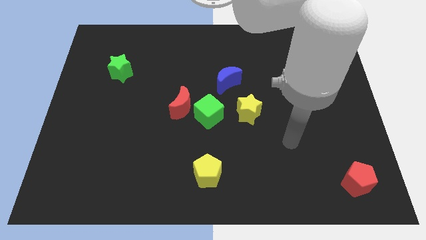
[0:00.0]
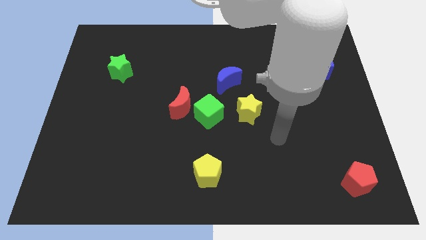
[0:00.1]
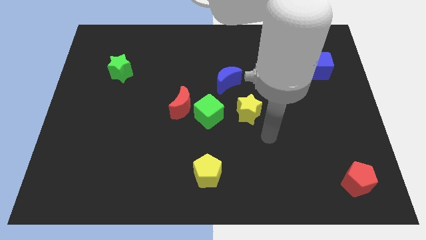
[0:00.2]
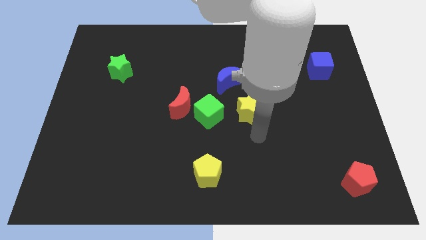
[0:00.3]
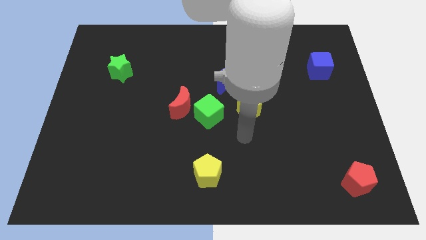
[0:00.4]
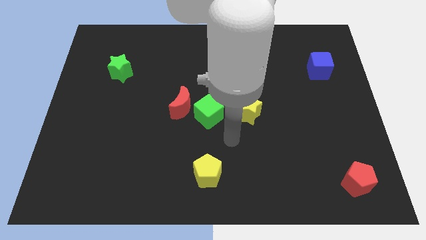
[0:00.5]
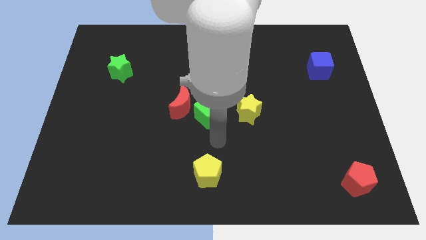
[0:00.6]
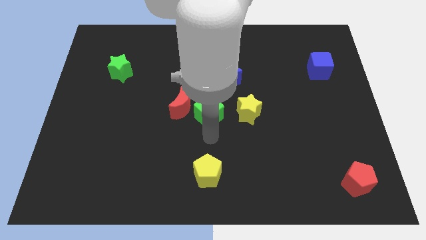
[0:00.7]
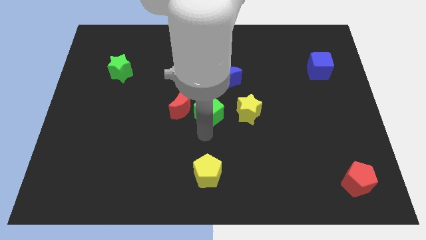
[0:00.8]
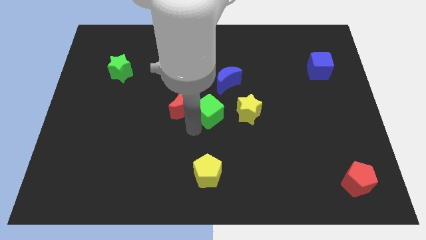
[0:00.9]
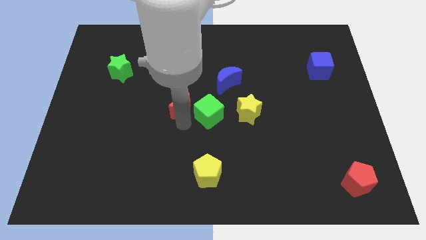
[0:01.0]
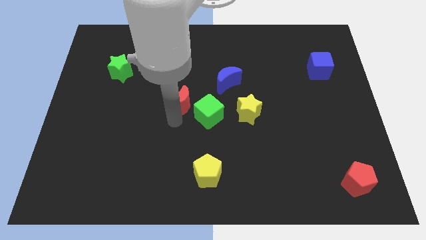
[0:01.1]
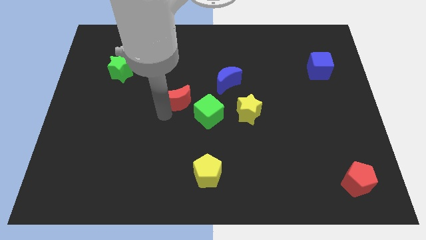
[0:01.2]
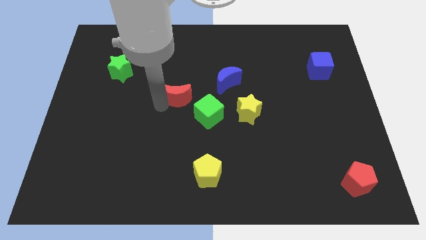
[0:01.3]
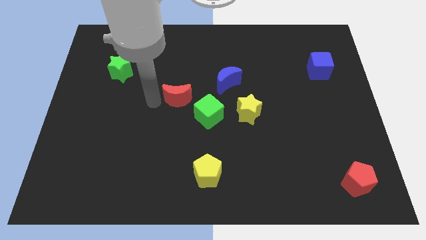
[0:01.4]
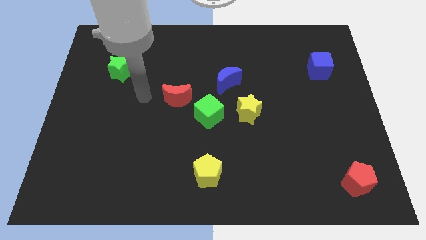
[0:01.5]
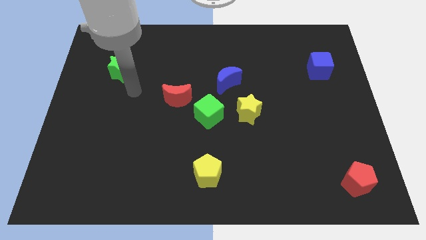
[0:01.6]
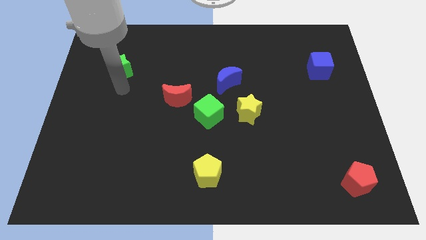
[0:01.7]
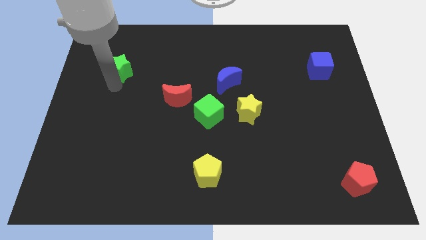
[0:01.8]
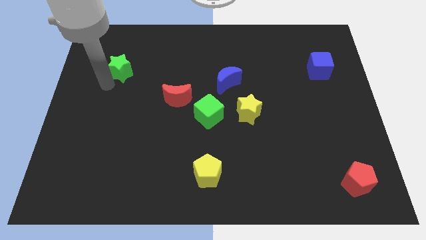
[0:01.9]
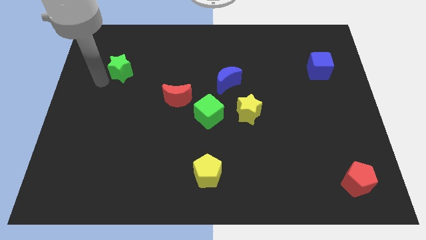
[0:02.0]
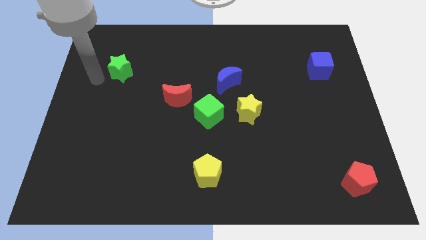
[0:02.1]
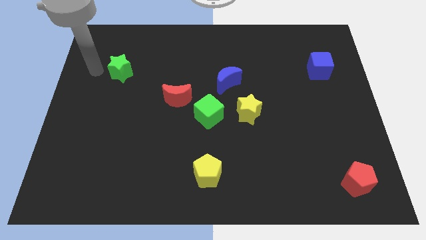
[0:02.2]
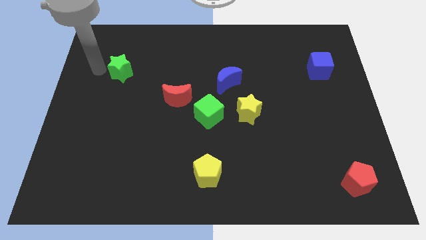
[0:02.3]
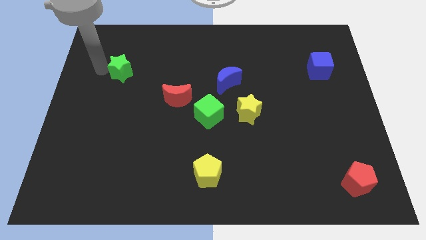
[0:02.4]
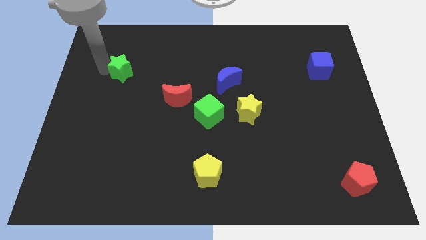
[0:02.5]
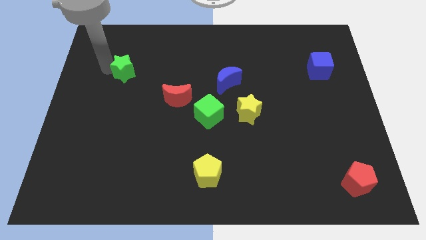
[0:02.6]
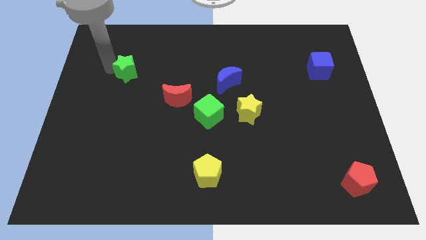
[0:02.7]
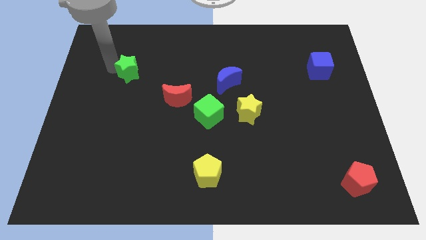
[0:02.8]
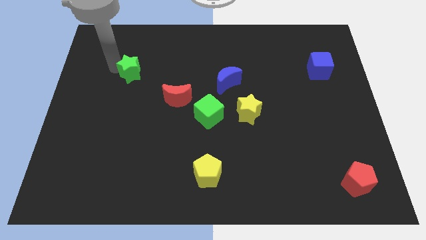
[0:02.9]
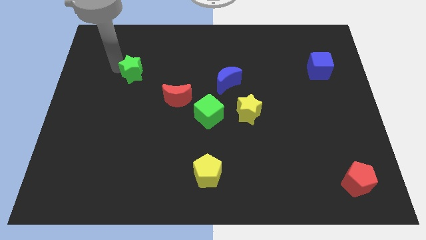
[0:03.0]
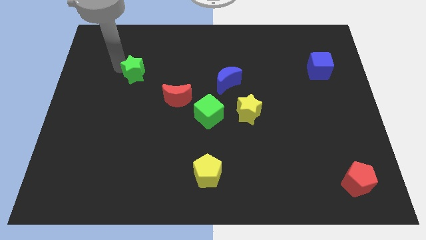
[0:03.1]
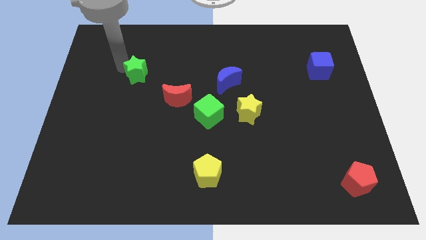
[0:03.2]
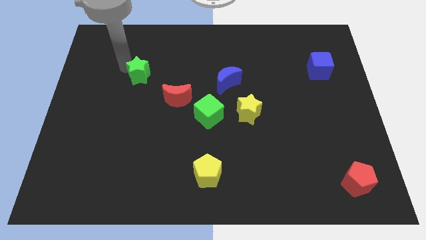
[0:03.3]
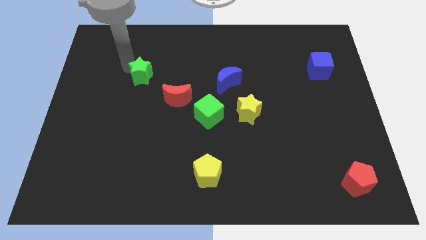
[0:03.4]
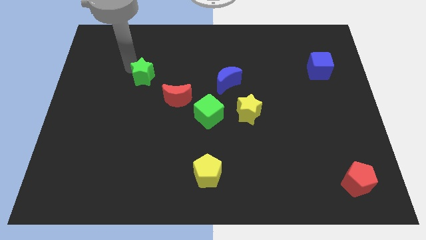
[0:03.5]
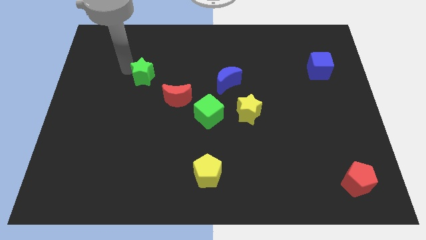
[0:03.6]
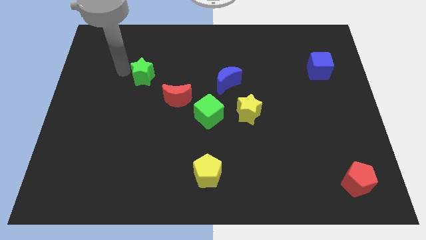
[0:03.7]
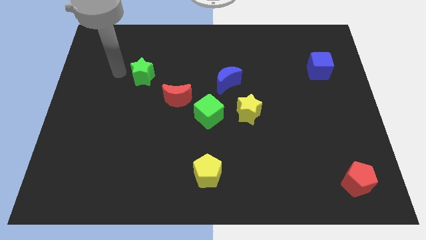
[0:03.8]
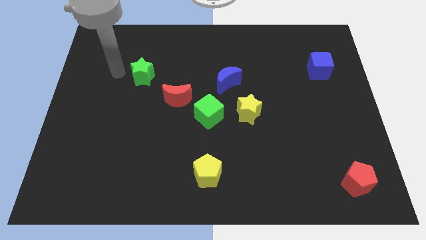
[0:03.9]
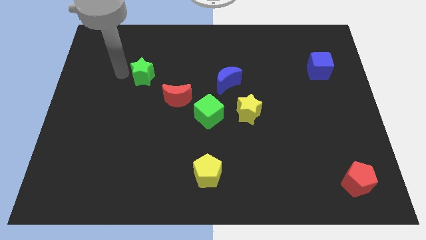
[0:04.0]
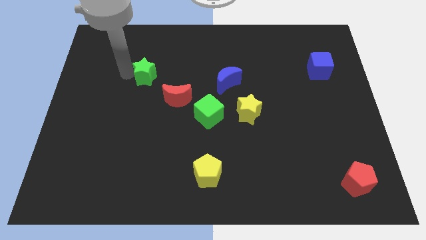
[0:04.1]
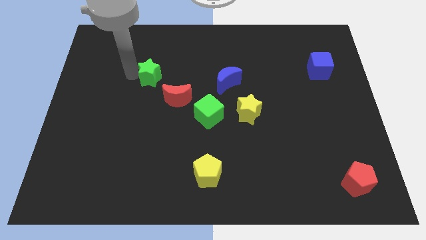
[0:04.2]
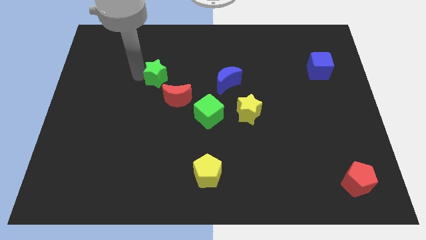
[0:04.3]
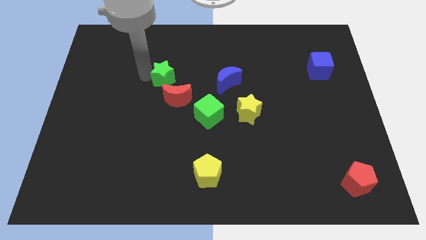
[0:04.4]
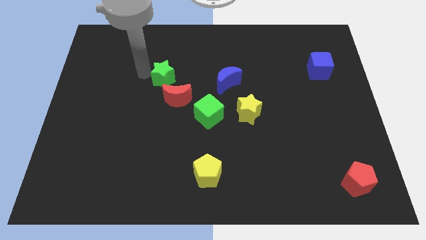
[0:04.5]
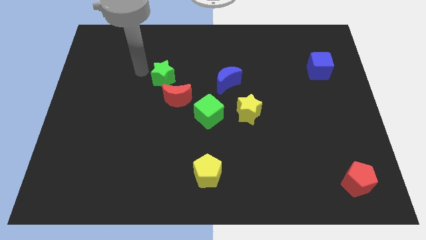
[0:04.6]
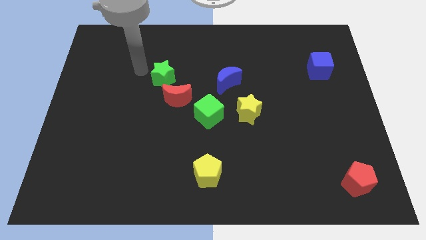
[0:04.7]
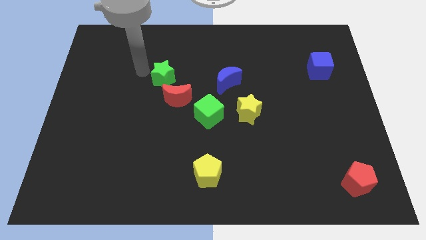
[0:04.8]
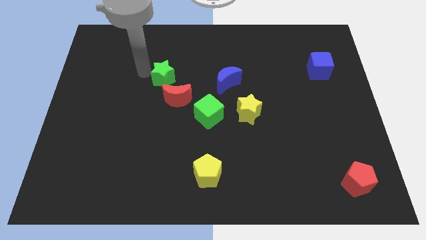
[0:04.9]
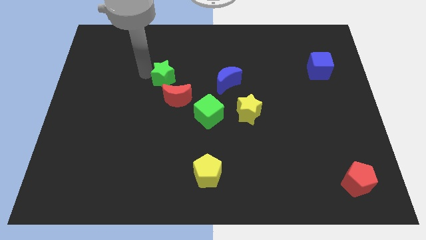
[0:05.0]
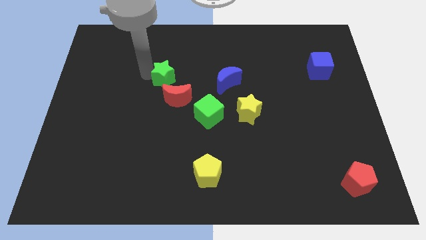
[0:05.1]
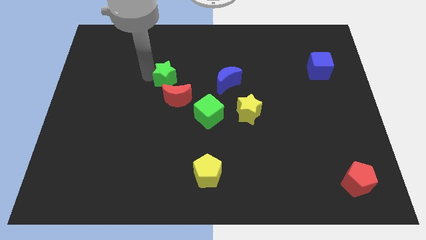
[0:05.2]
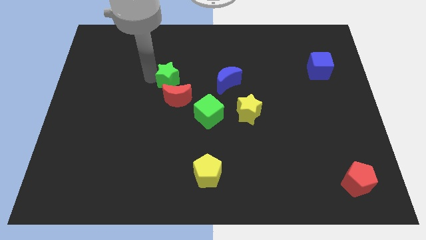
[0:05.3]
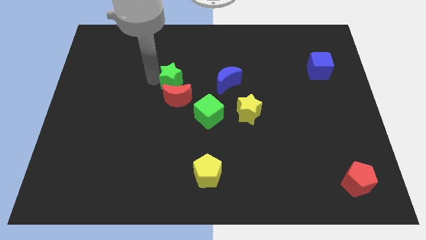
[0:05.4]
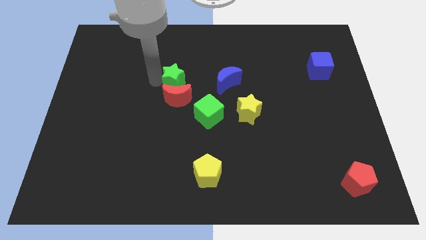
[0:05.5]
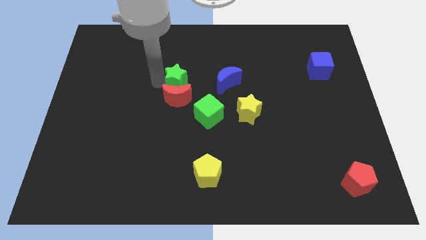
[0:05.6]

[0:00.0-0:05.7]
move the green star diagonally up and to the right of the red moon
